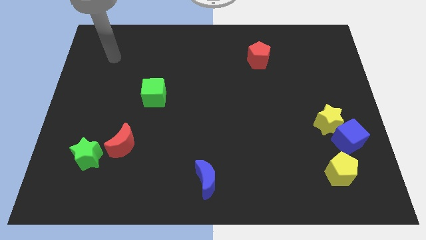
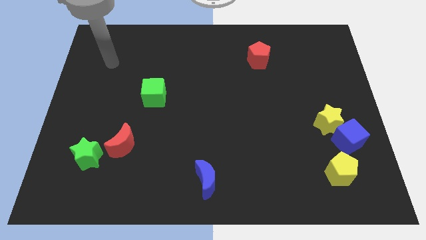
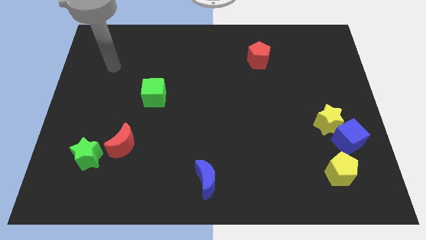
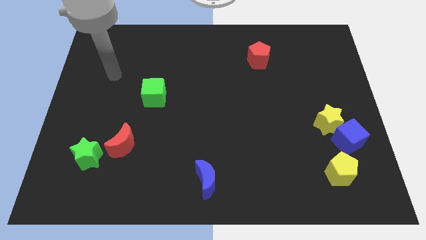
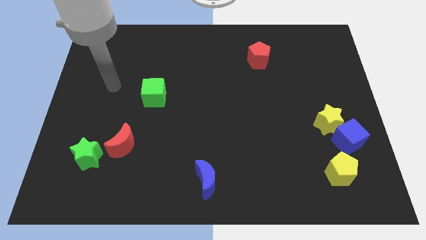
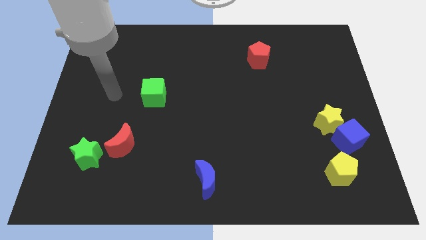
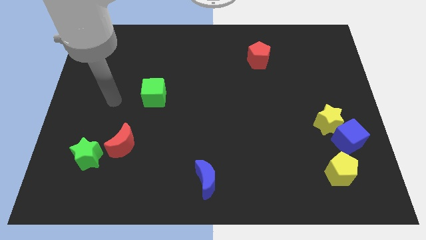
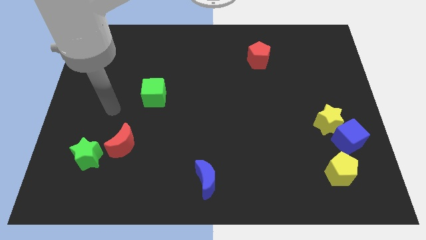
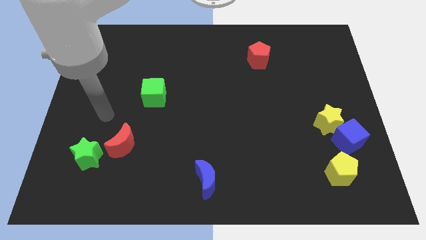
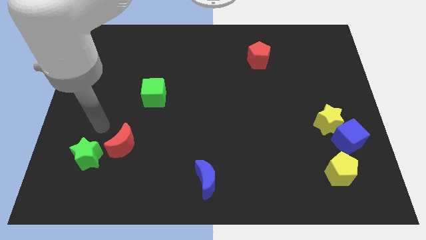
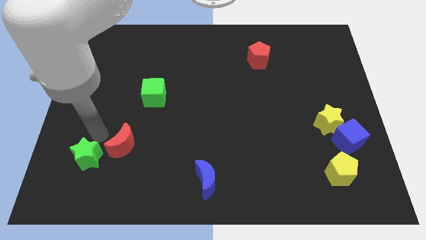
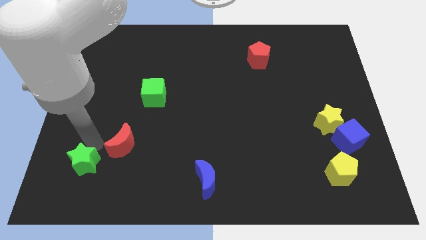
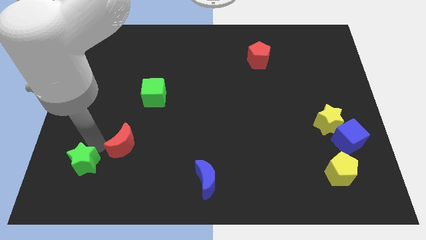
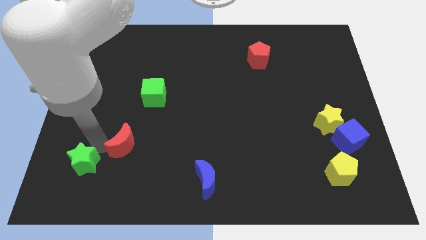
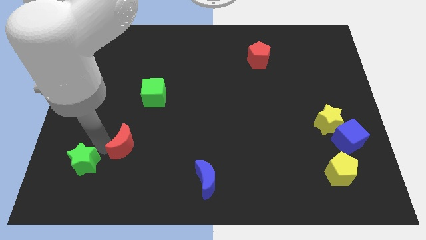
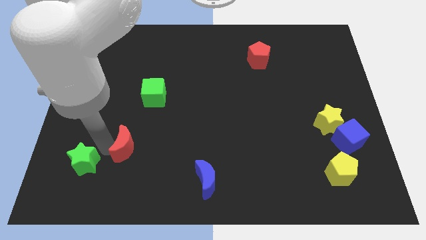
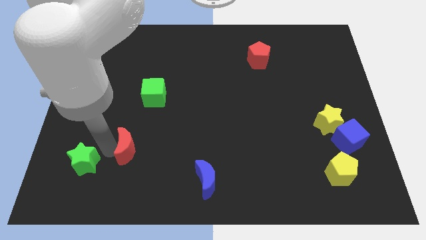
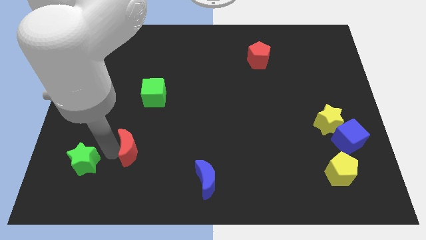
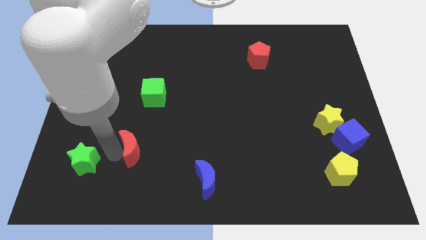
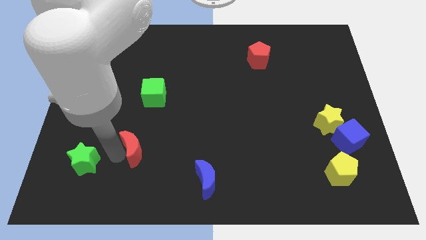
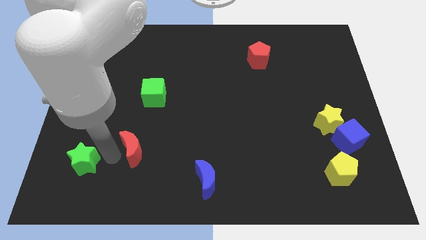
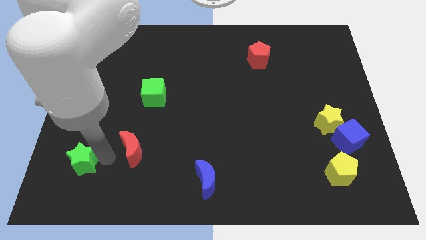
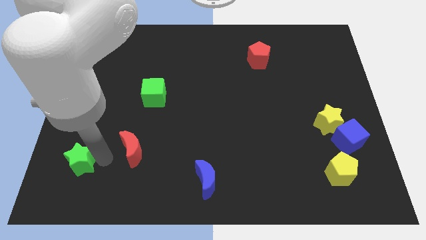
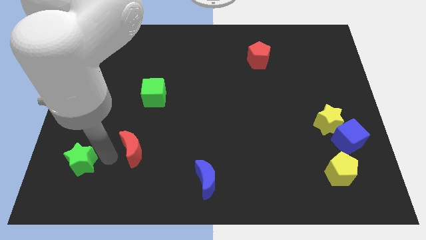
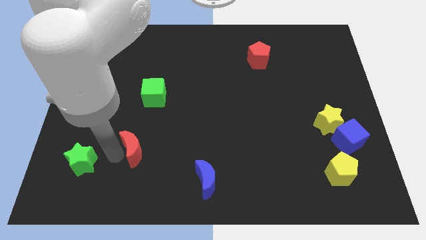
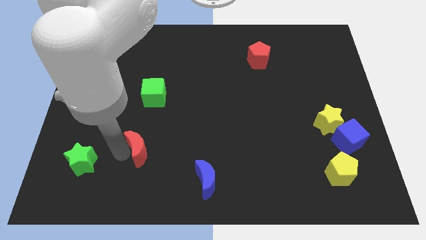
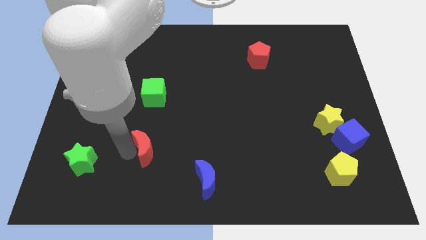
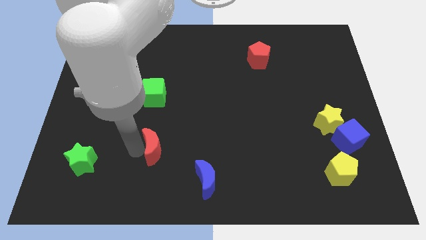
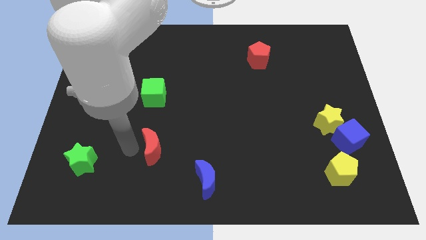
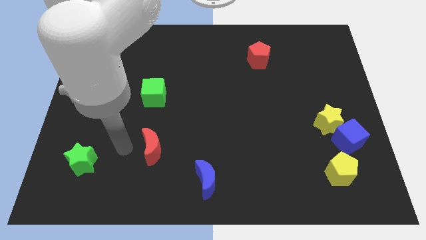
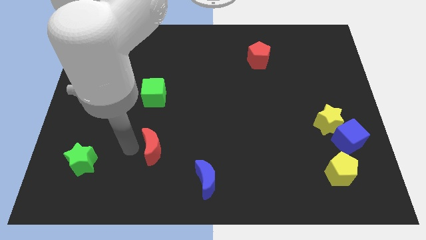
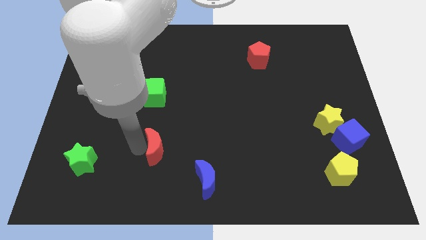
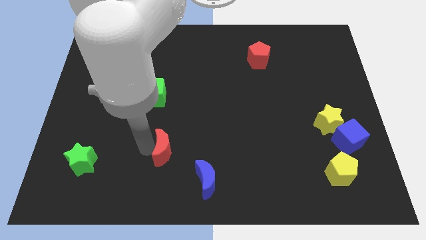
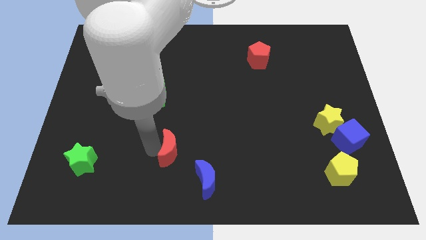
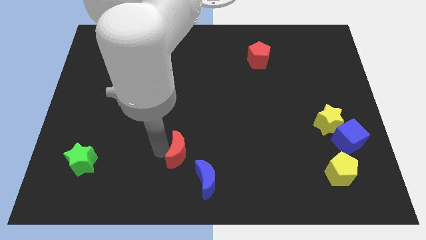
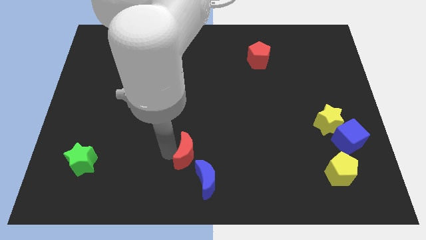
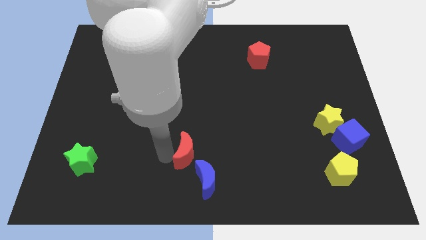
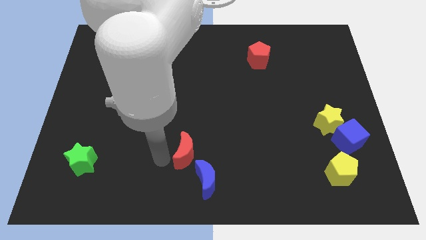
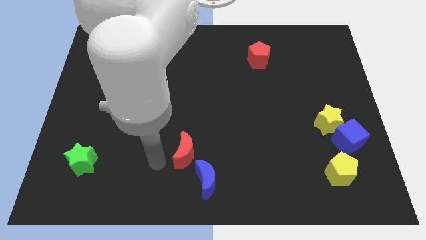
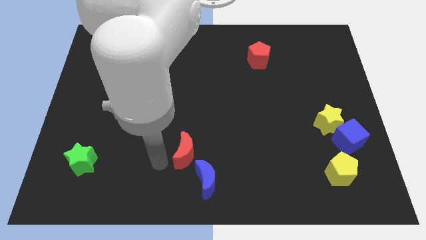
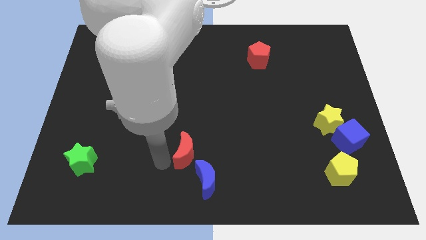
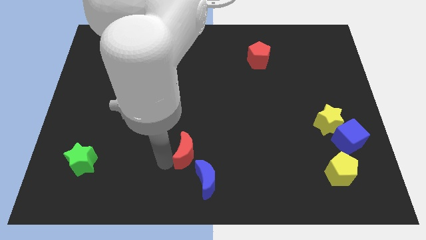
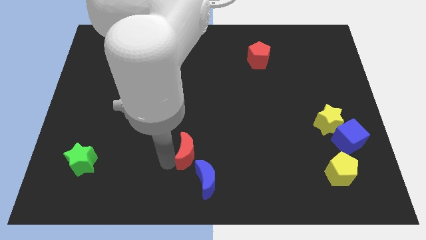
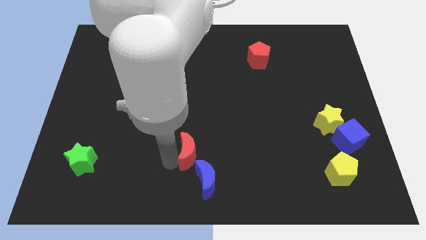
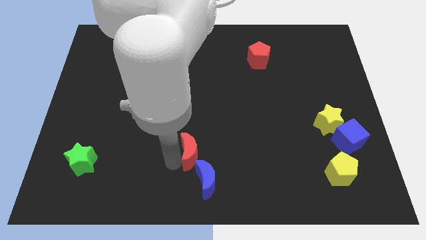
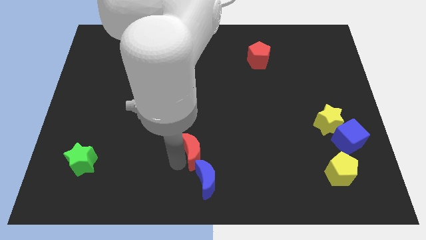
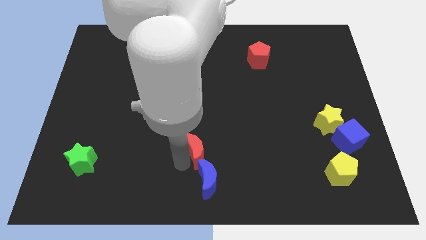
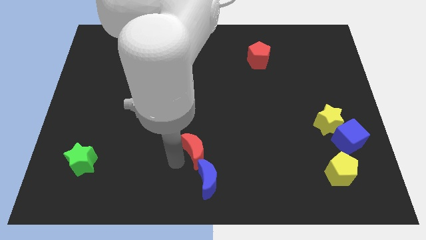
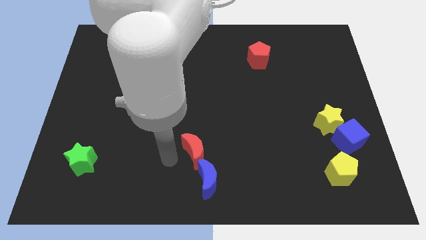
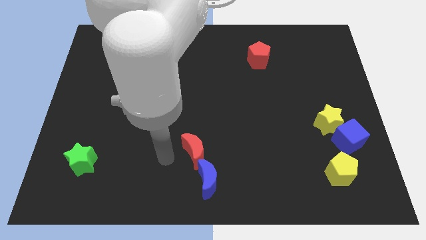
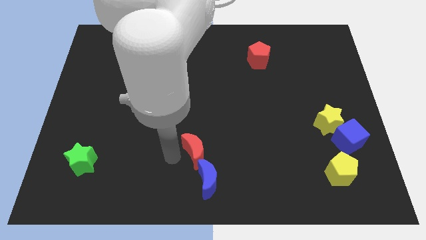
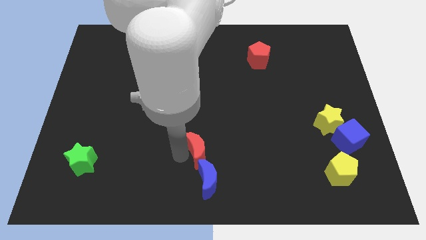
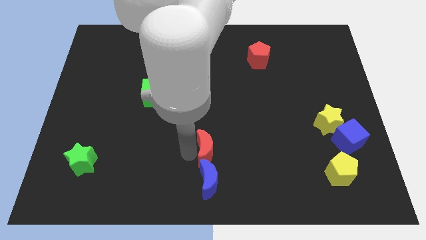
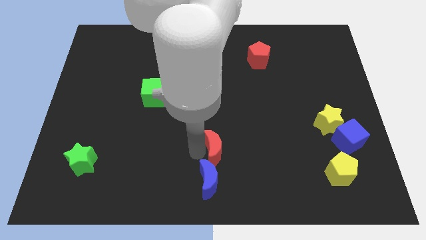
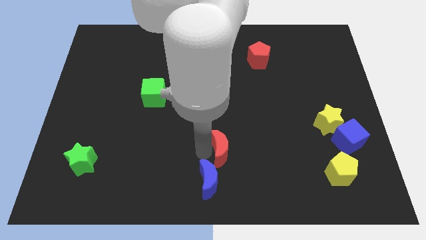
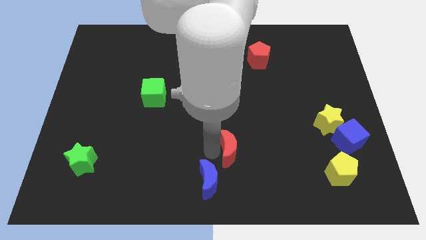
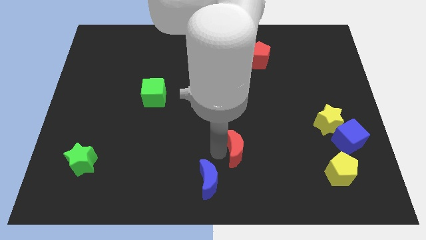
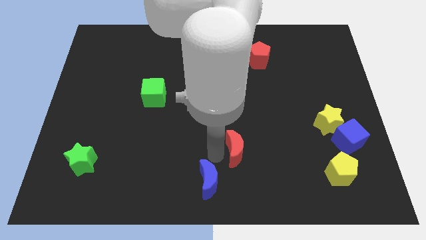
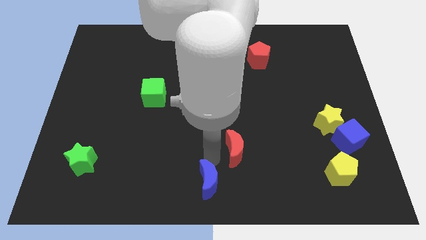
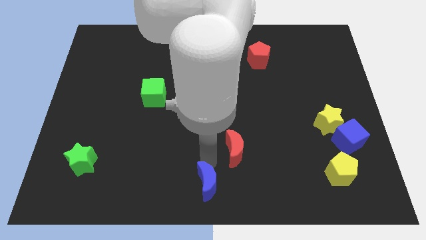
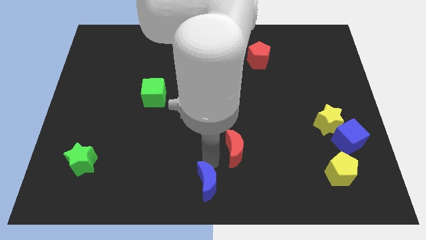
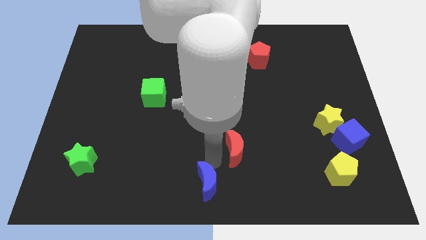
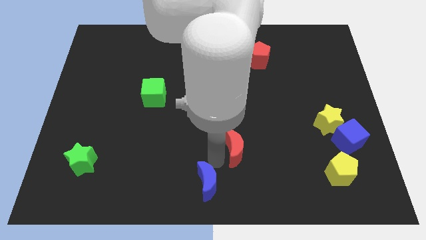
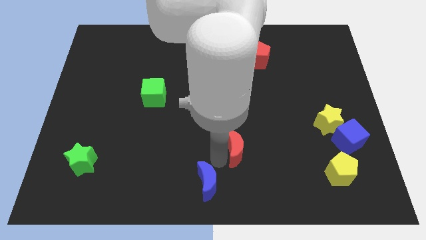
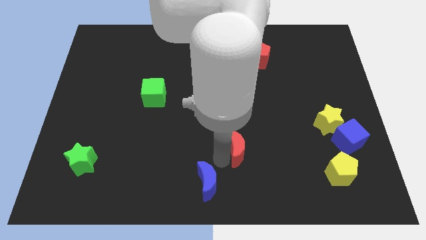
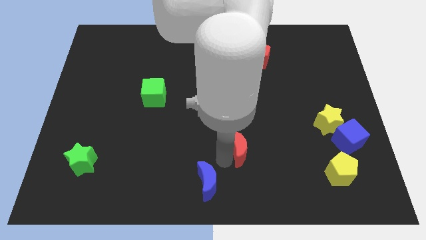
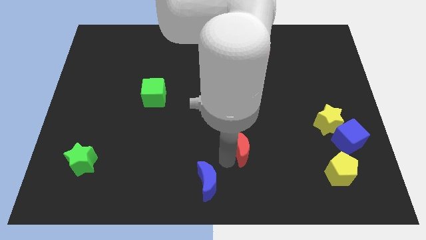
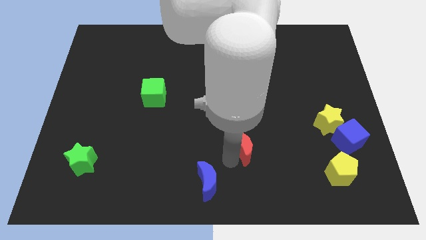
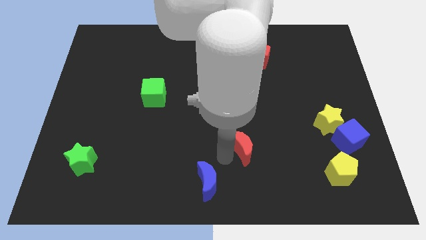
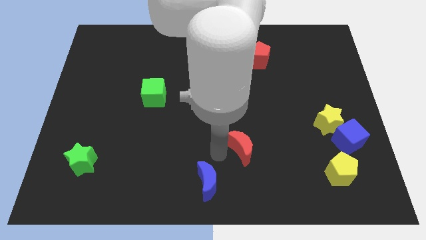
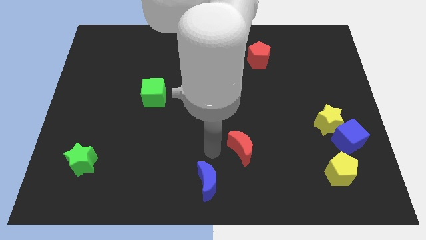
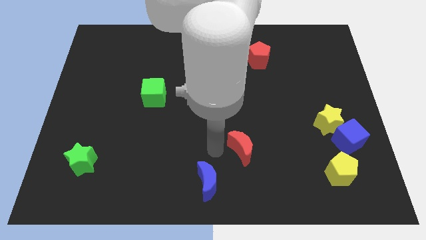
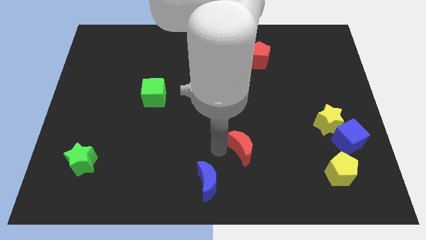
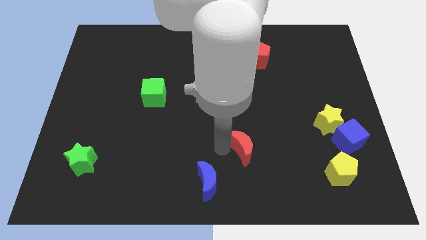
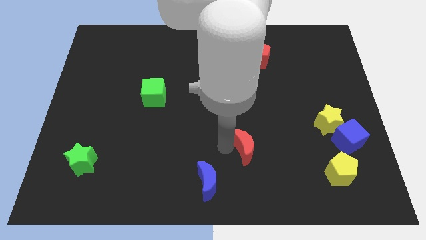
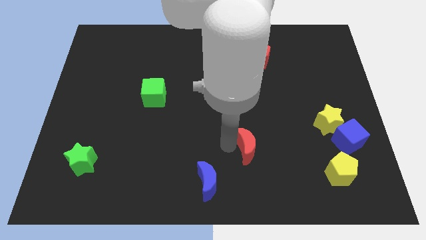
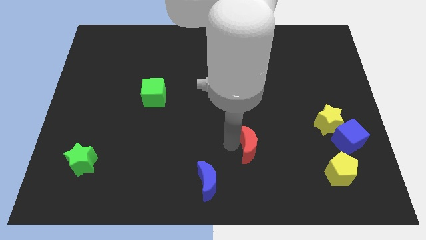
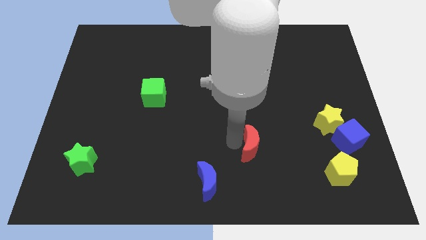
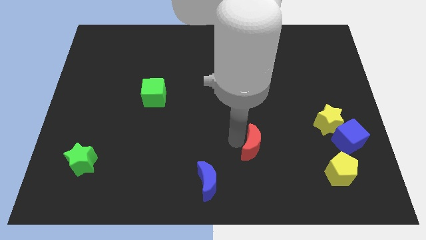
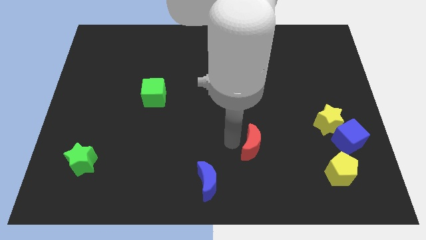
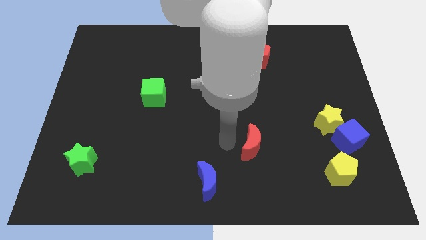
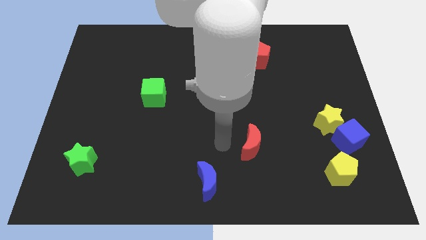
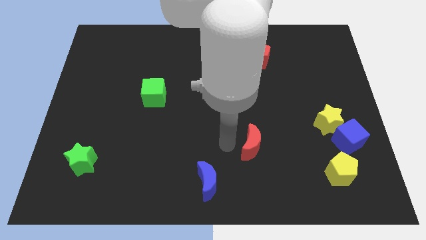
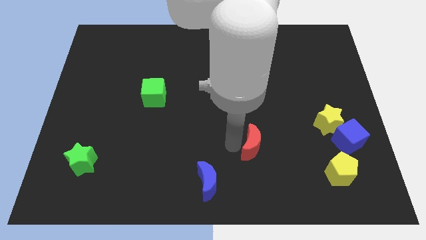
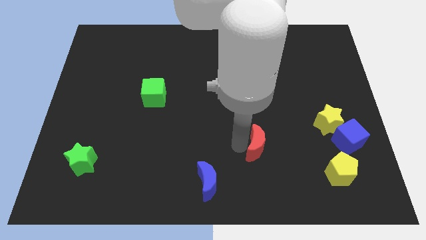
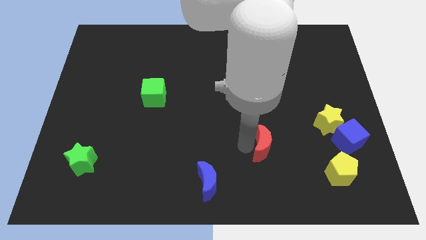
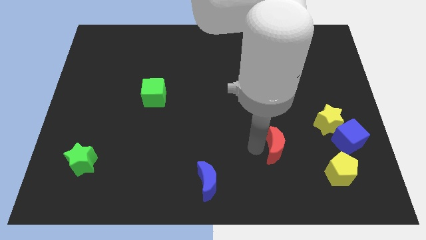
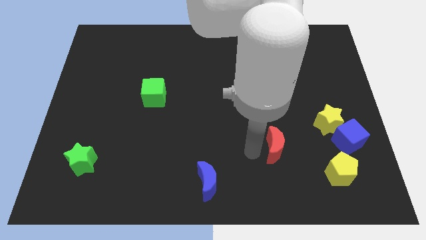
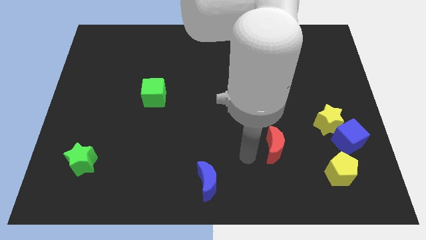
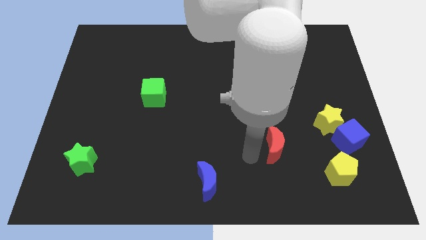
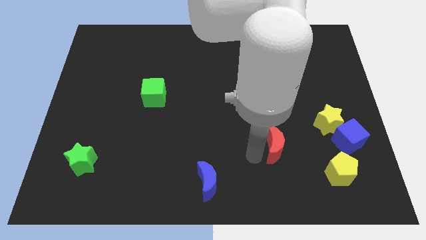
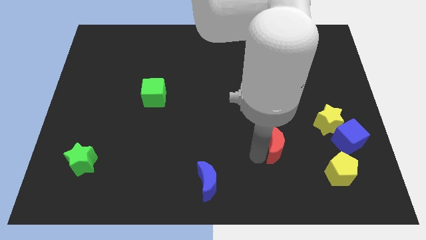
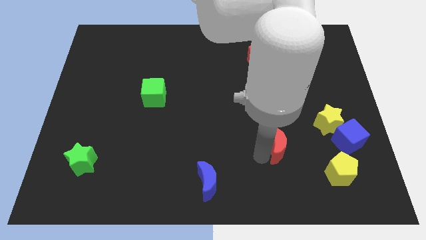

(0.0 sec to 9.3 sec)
push the red moon to the left side of the blue cube
